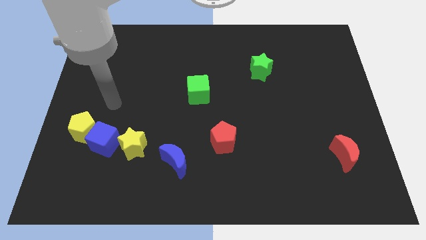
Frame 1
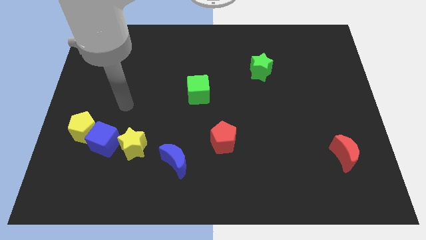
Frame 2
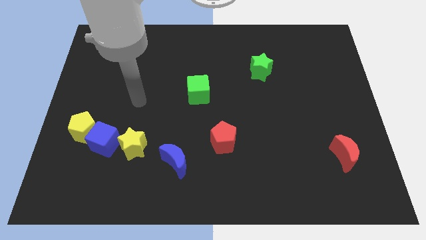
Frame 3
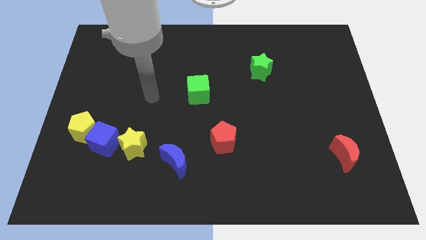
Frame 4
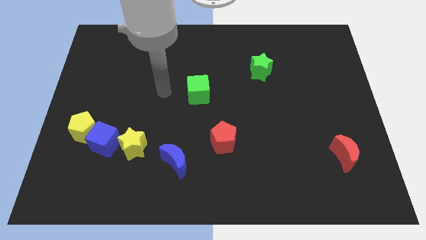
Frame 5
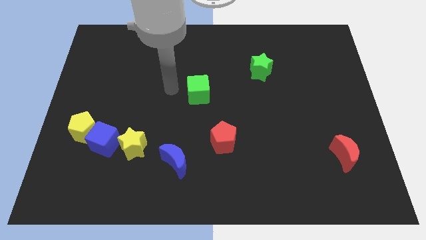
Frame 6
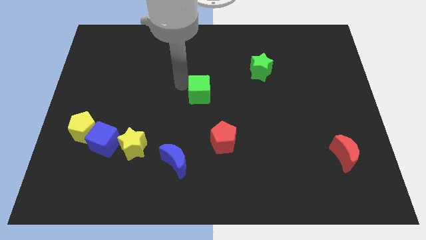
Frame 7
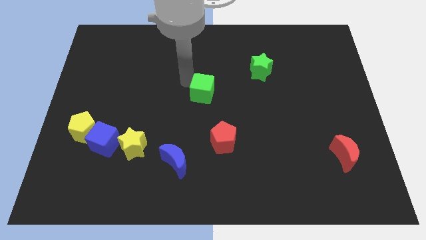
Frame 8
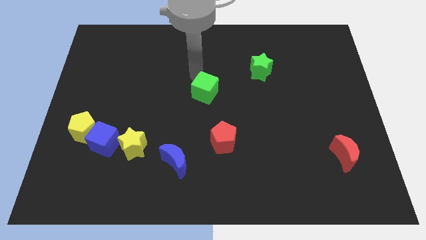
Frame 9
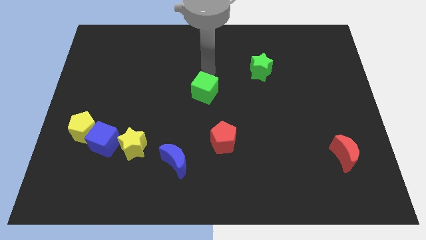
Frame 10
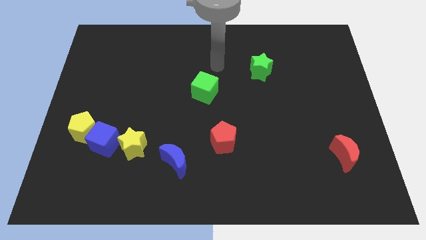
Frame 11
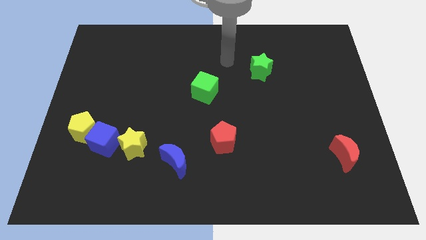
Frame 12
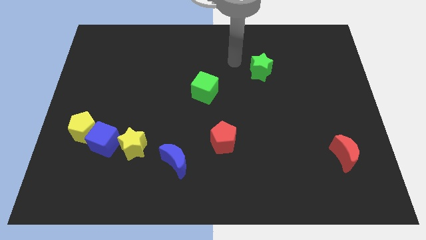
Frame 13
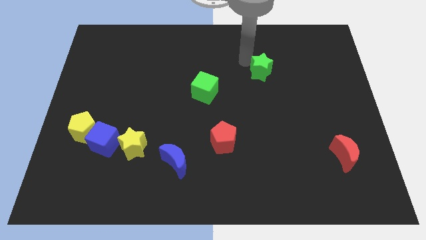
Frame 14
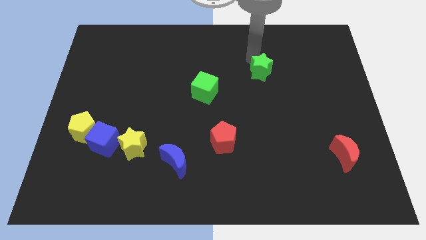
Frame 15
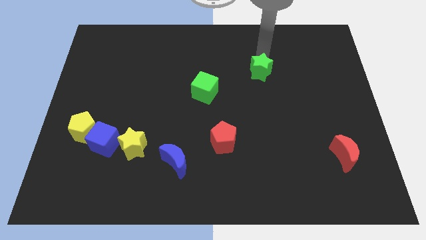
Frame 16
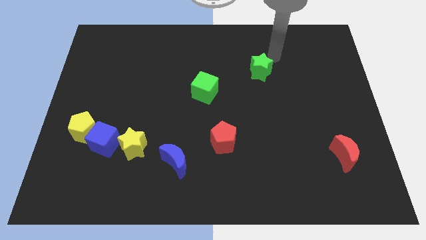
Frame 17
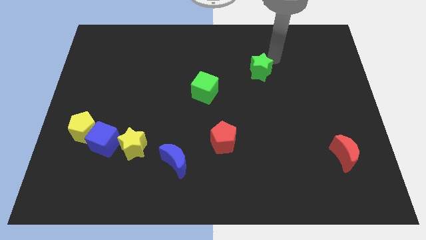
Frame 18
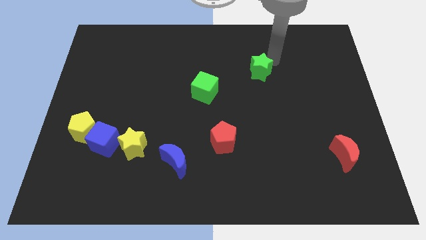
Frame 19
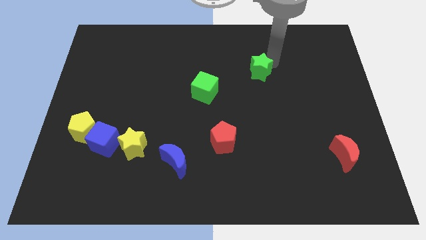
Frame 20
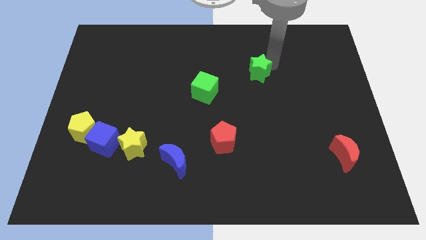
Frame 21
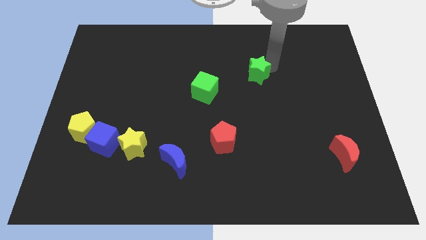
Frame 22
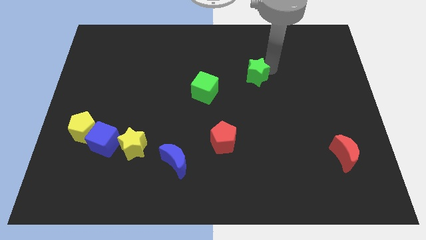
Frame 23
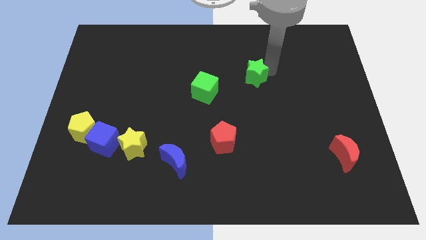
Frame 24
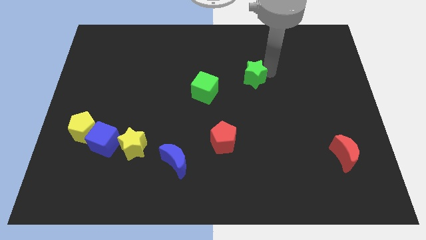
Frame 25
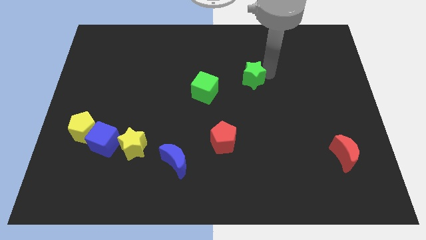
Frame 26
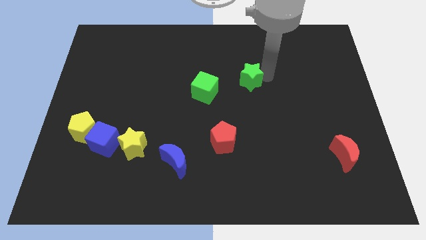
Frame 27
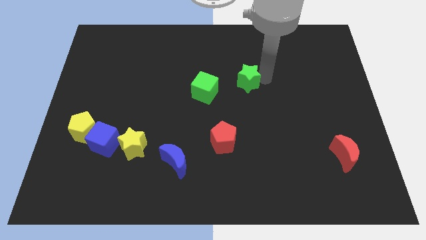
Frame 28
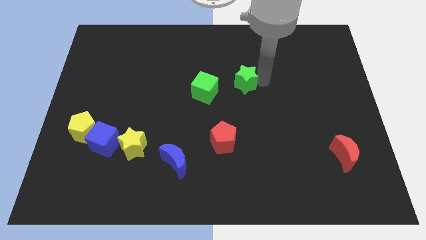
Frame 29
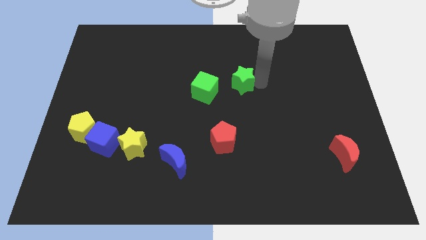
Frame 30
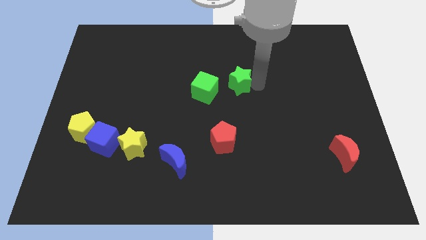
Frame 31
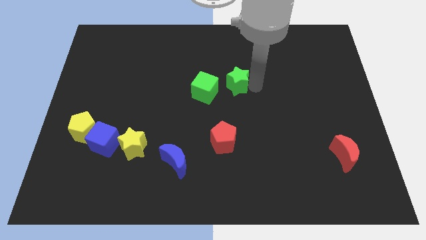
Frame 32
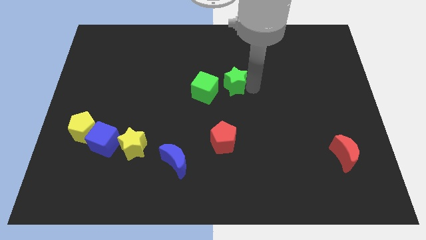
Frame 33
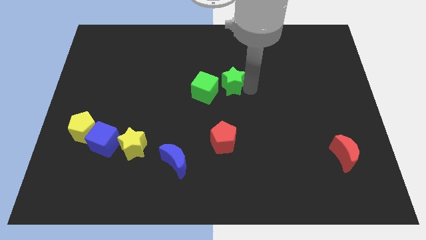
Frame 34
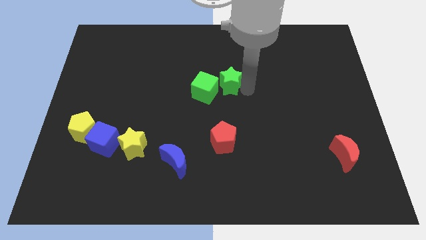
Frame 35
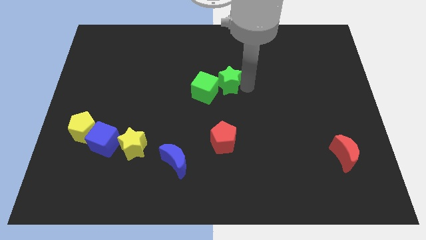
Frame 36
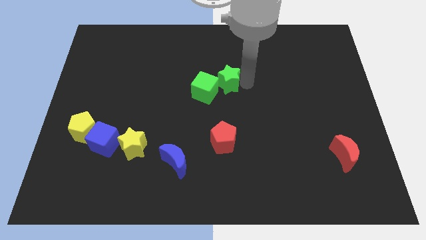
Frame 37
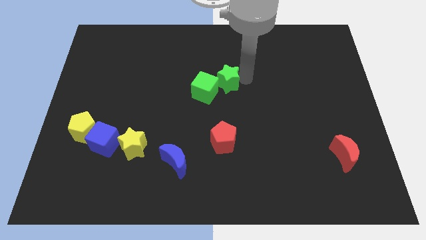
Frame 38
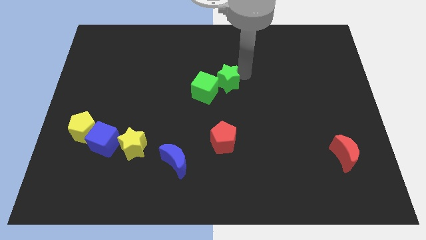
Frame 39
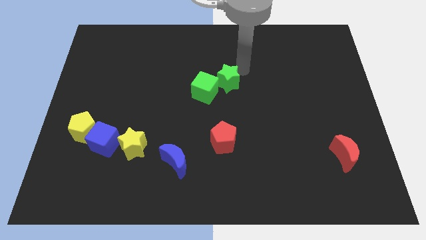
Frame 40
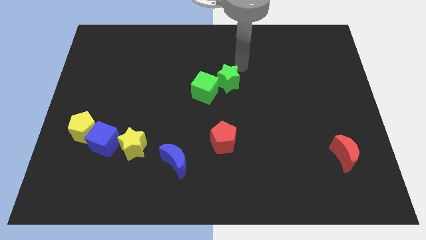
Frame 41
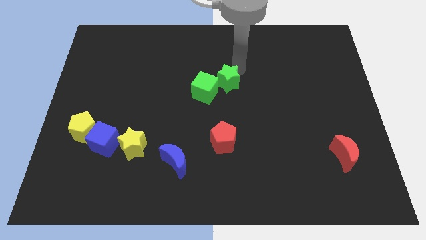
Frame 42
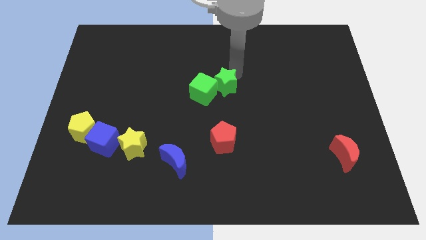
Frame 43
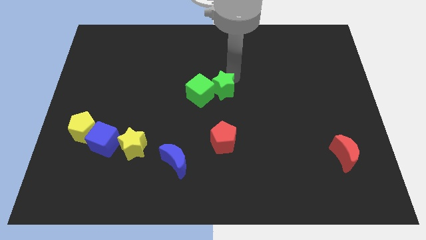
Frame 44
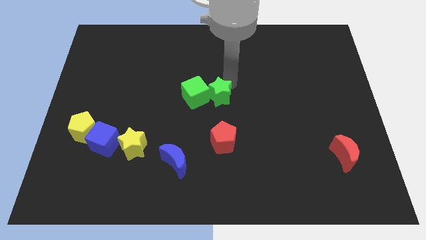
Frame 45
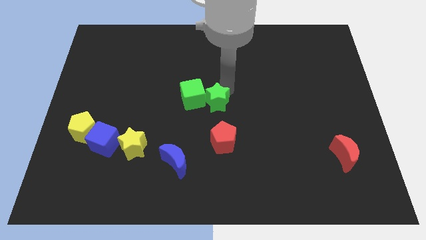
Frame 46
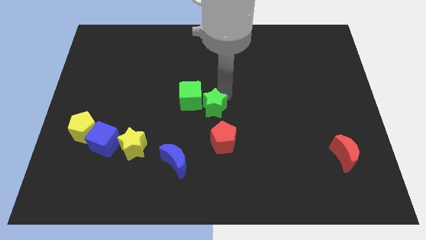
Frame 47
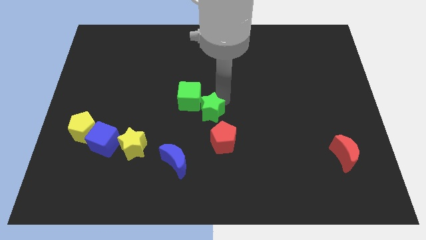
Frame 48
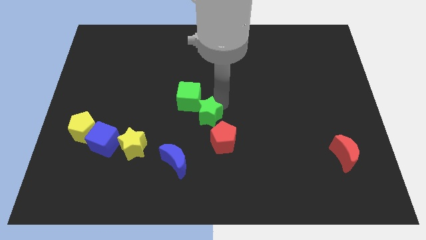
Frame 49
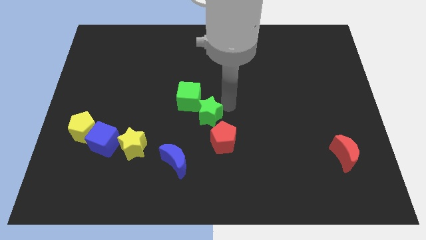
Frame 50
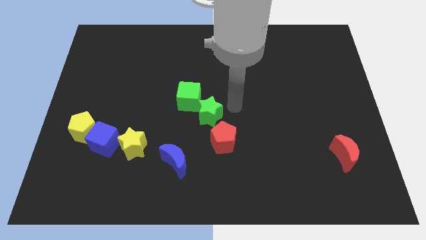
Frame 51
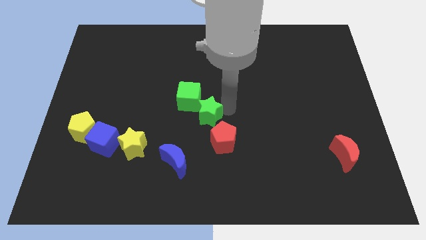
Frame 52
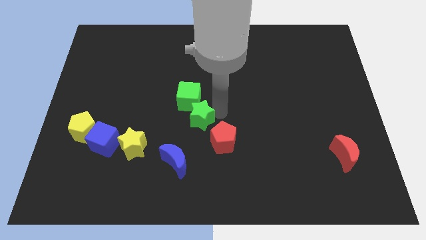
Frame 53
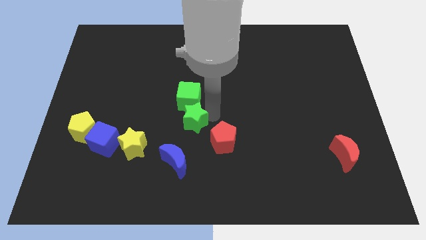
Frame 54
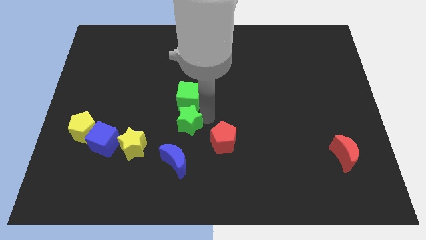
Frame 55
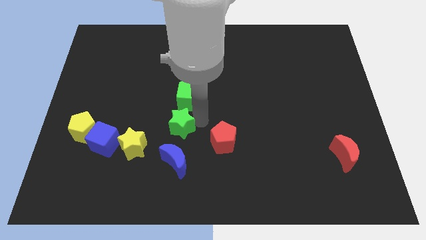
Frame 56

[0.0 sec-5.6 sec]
slide the green star diagonally up and to the right of the yellow star

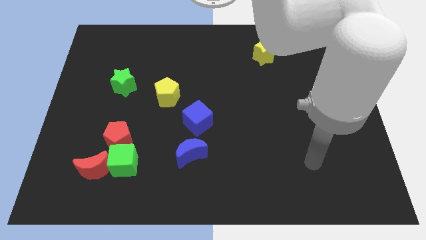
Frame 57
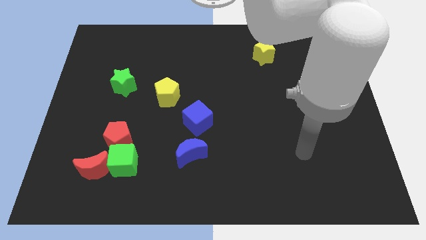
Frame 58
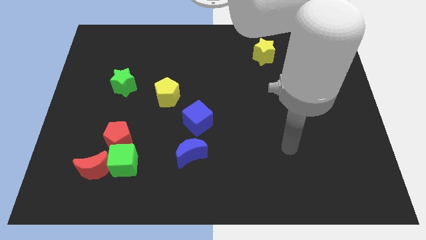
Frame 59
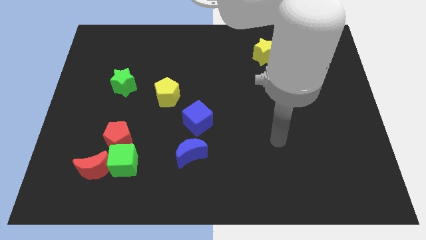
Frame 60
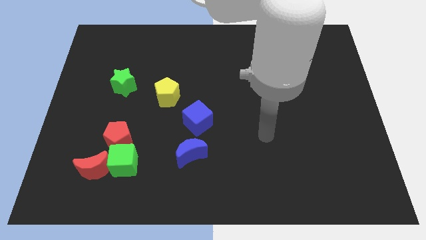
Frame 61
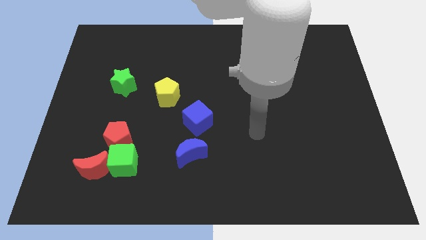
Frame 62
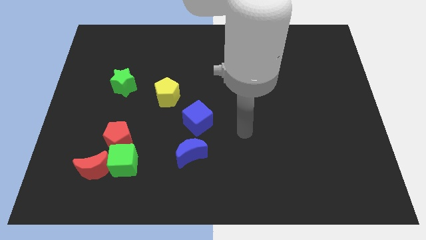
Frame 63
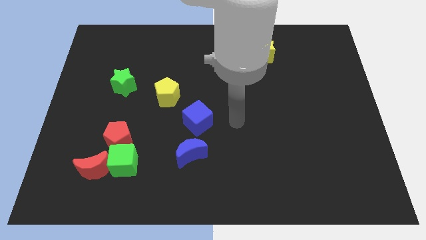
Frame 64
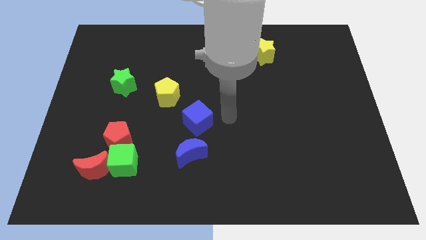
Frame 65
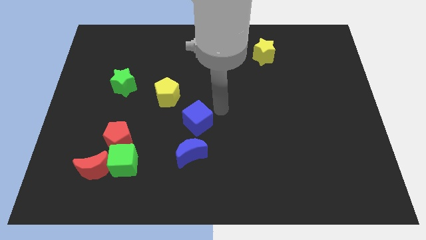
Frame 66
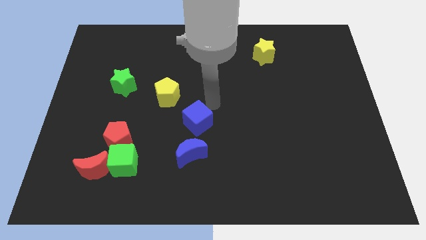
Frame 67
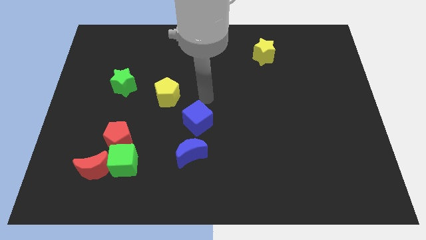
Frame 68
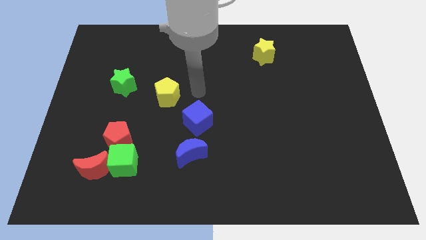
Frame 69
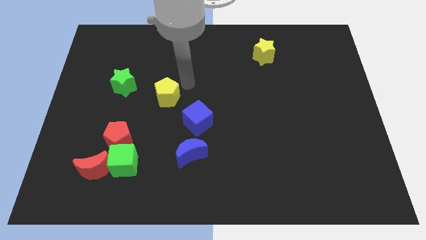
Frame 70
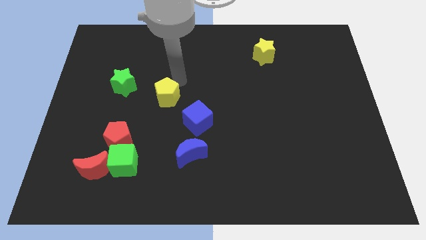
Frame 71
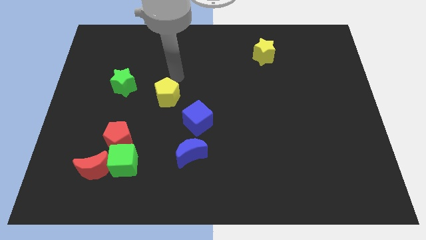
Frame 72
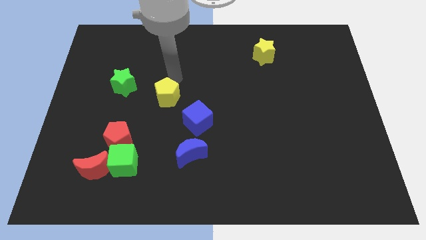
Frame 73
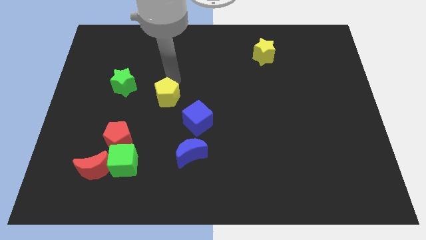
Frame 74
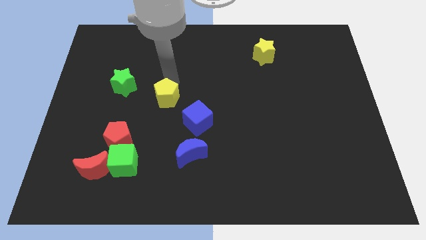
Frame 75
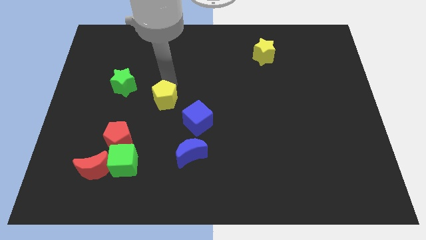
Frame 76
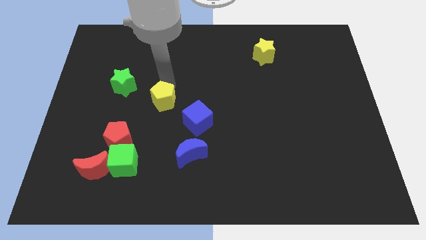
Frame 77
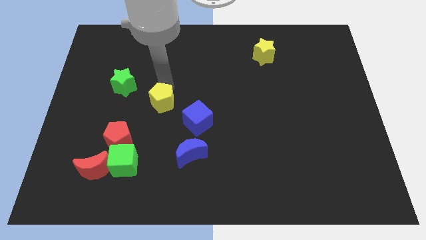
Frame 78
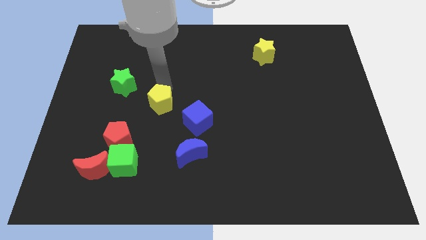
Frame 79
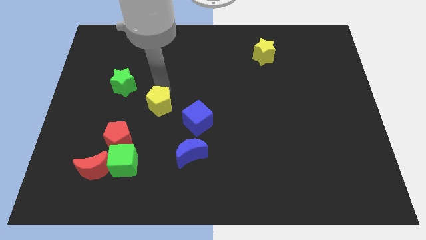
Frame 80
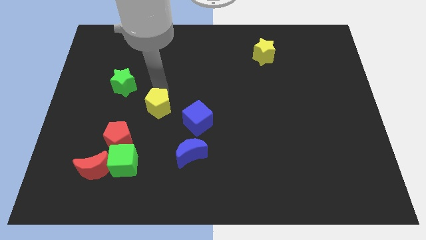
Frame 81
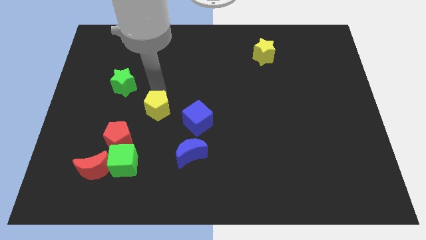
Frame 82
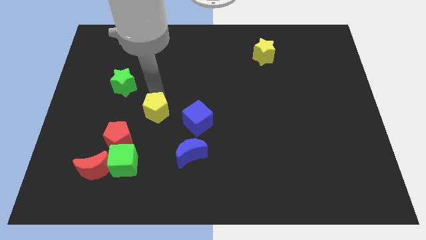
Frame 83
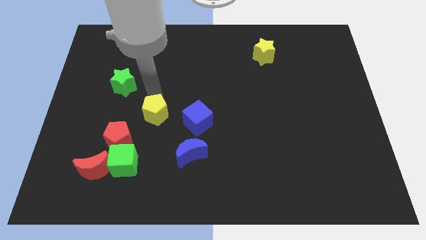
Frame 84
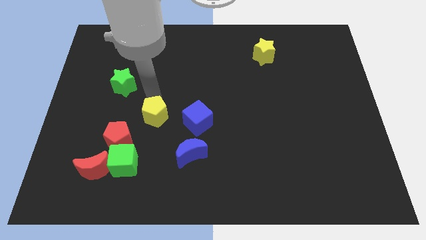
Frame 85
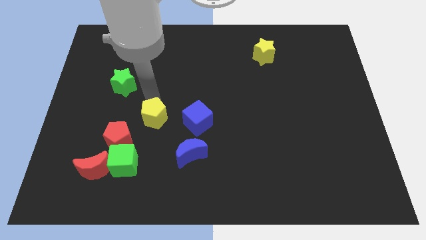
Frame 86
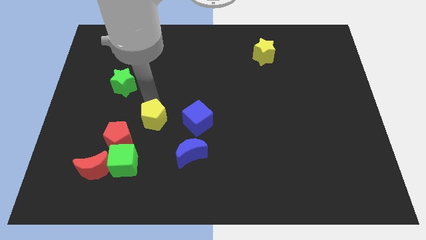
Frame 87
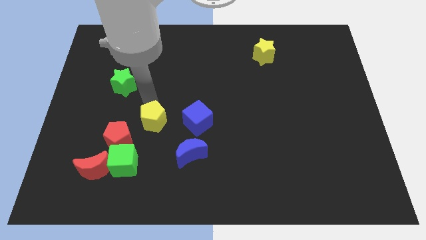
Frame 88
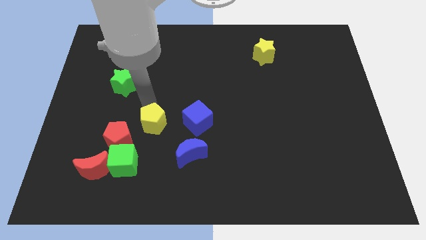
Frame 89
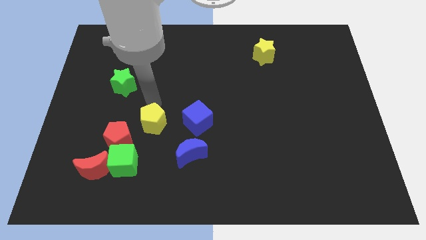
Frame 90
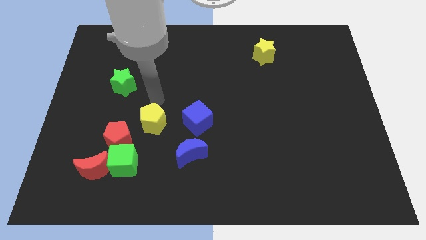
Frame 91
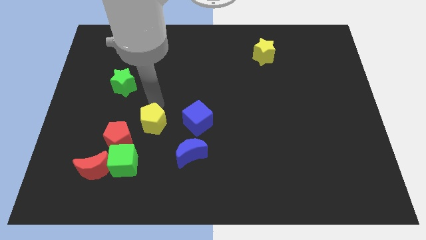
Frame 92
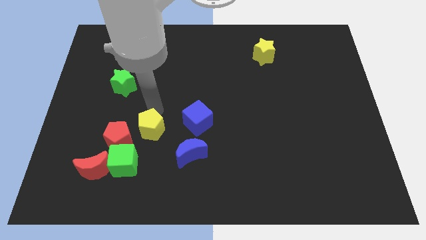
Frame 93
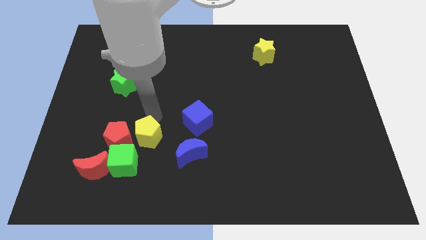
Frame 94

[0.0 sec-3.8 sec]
slide the yellow pentagon to the bottom right side of the red pentagon
